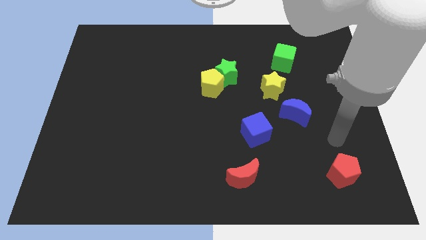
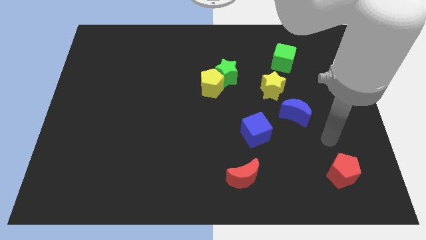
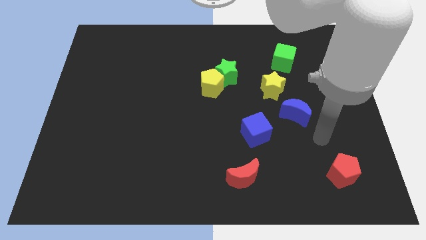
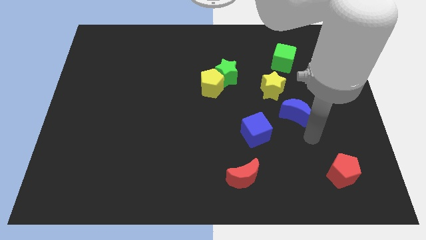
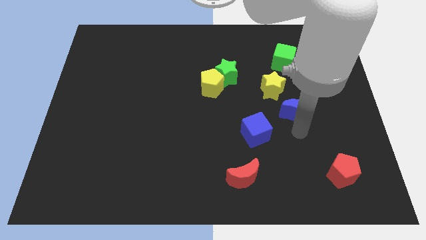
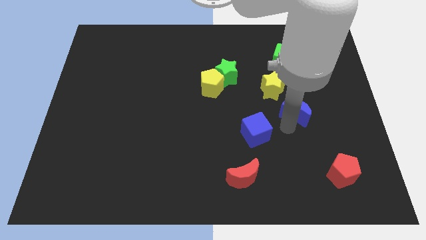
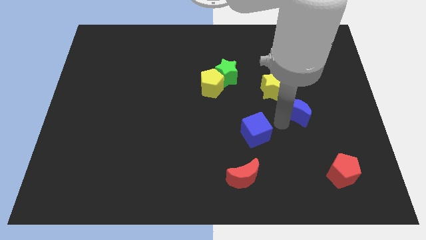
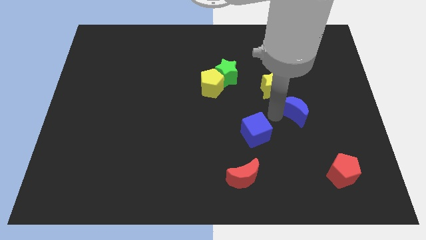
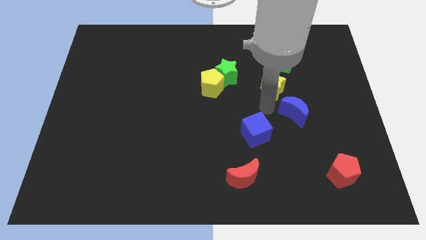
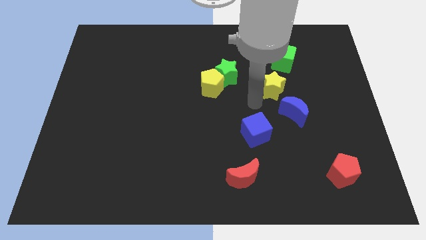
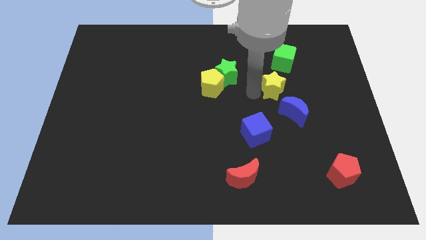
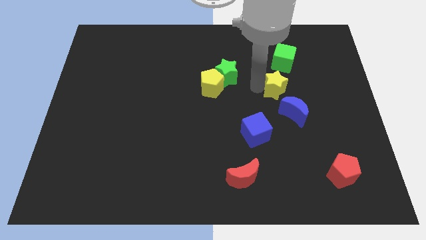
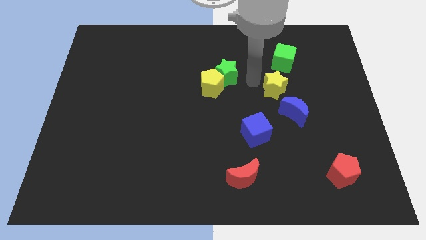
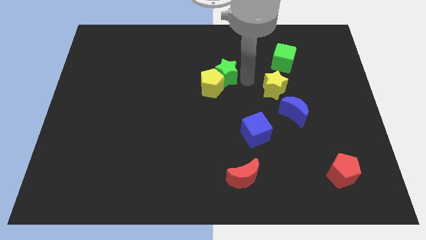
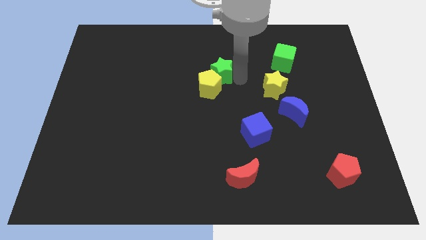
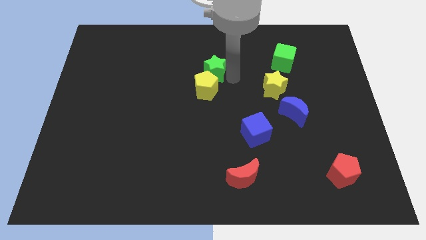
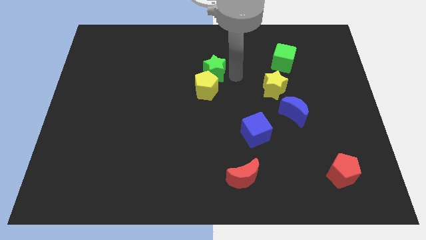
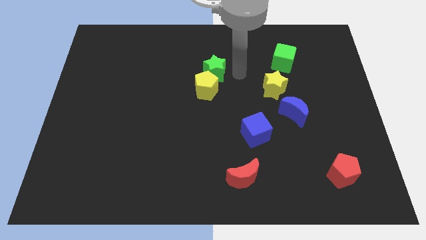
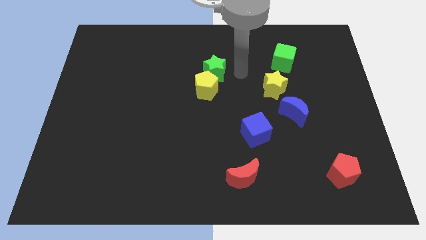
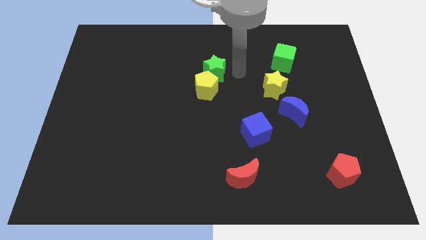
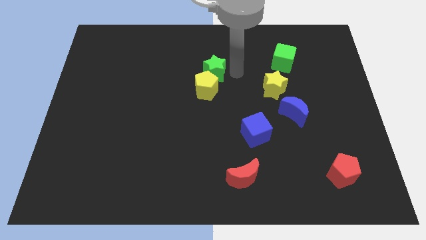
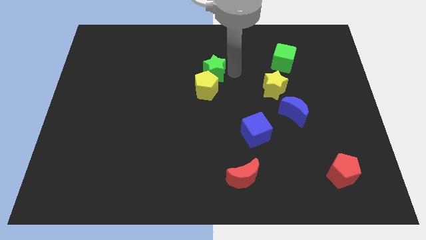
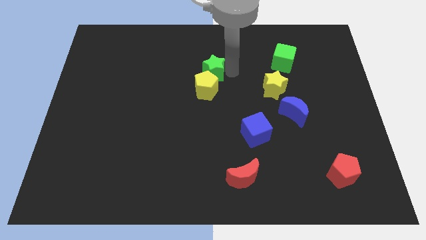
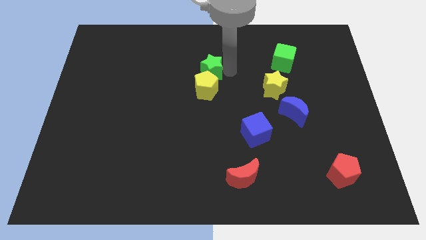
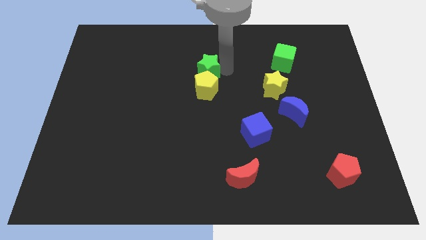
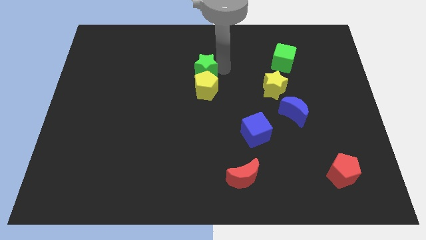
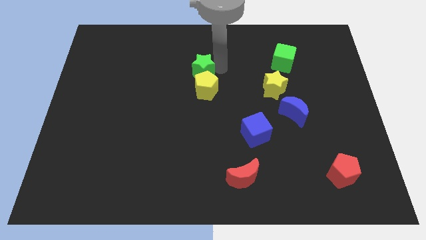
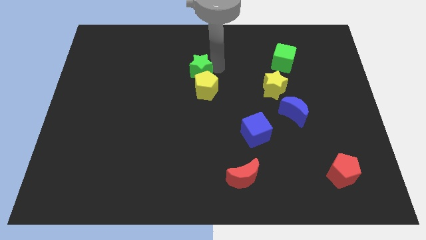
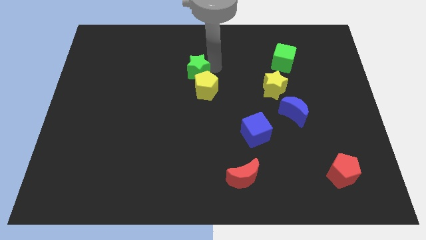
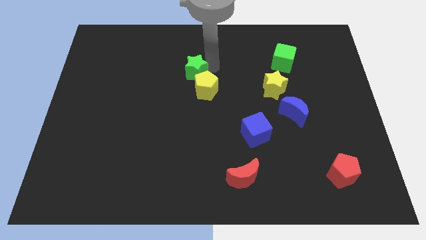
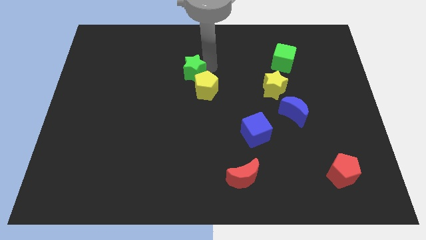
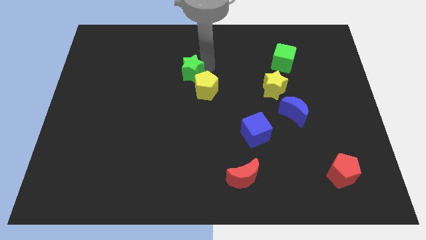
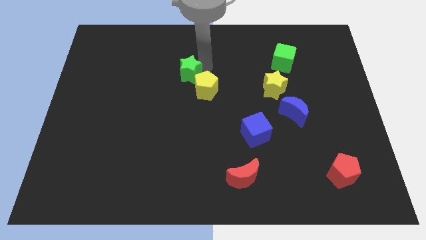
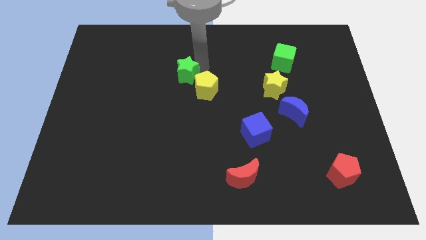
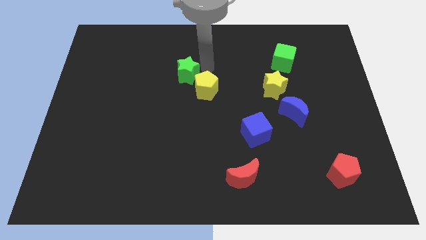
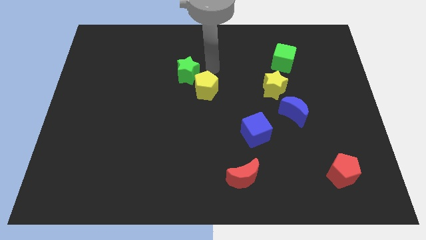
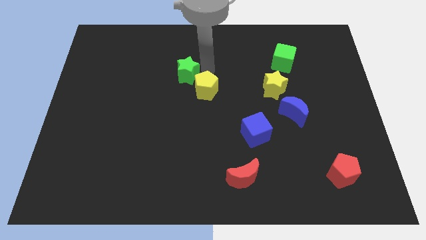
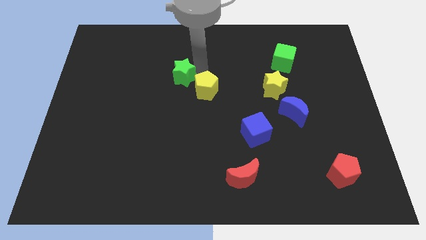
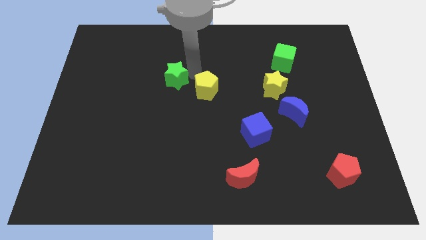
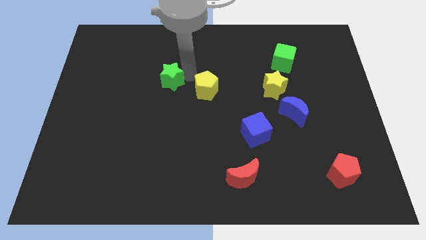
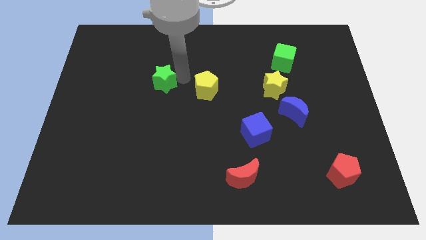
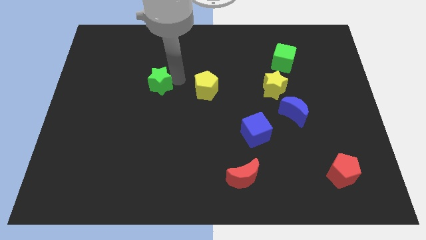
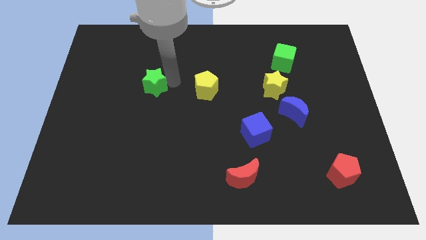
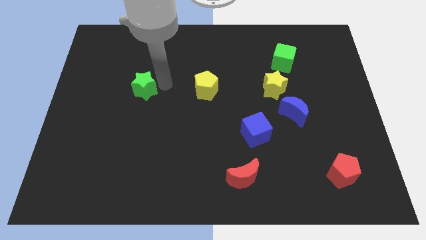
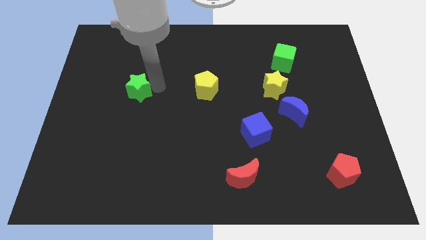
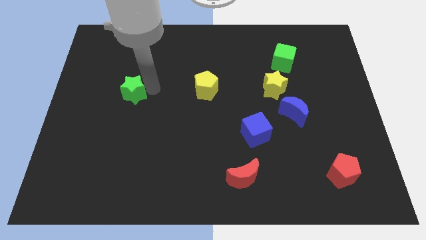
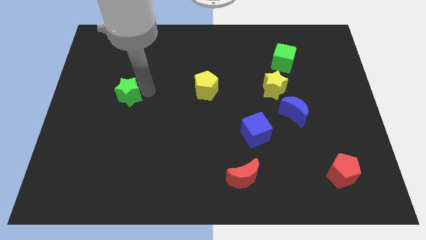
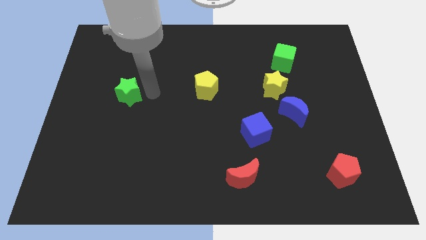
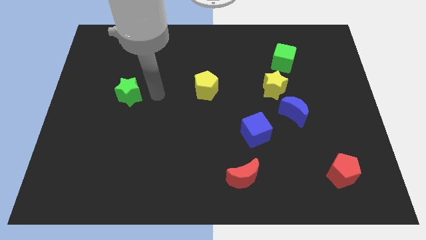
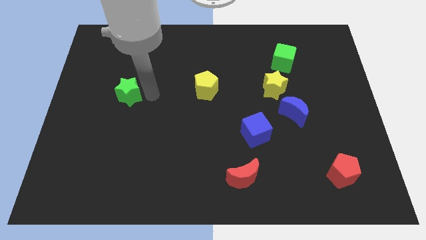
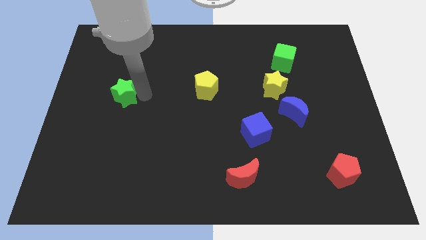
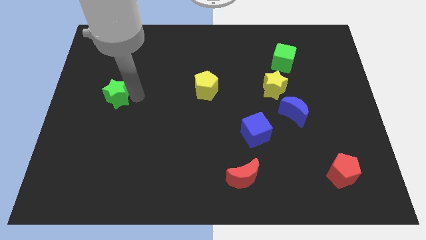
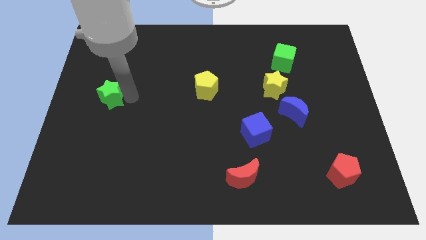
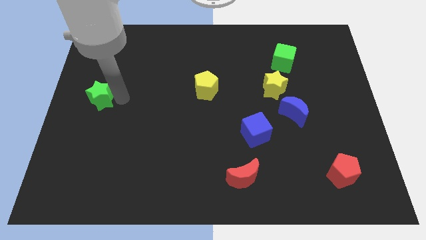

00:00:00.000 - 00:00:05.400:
slide the green star to the center left
